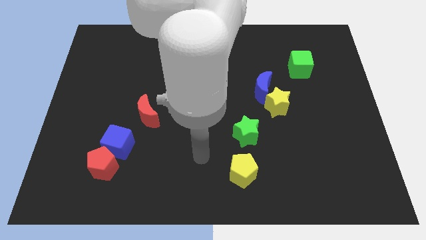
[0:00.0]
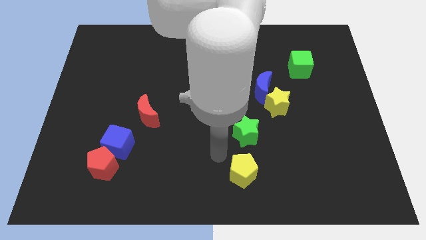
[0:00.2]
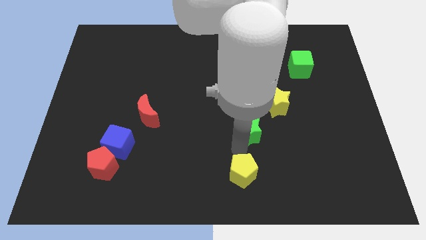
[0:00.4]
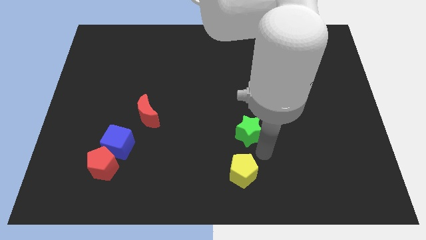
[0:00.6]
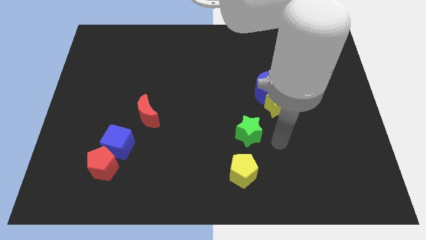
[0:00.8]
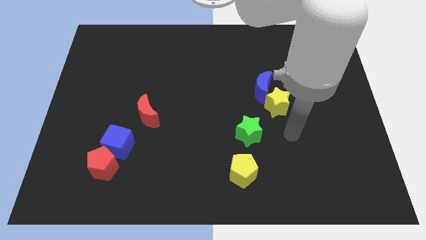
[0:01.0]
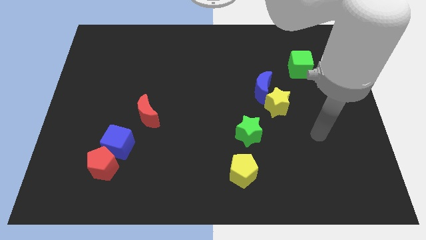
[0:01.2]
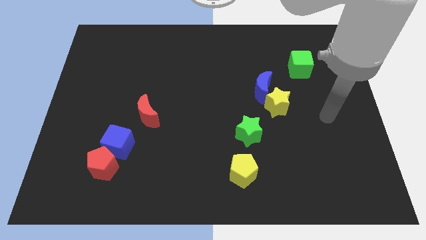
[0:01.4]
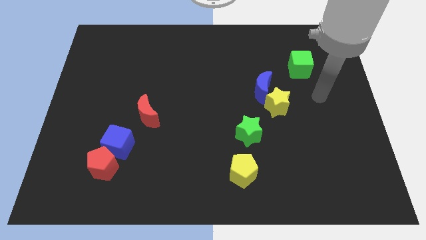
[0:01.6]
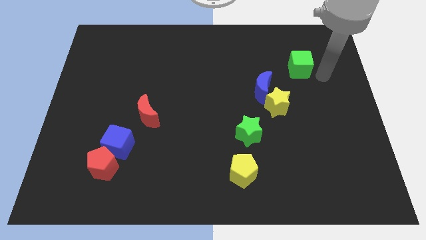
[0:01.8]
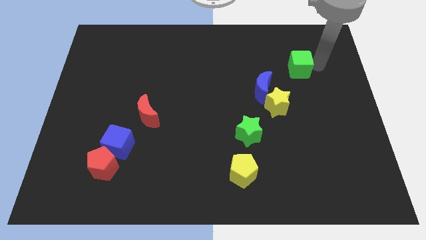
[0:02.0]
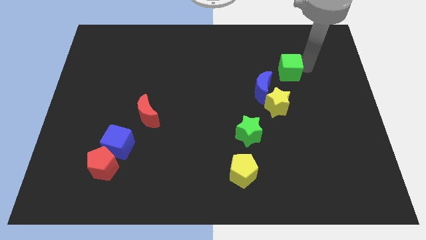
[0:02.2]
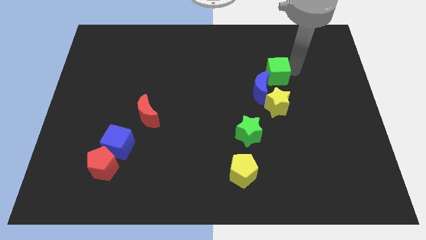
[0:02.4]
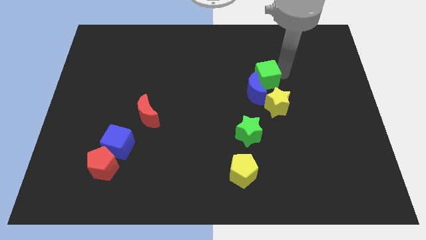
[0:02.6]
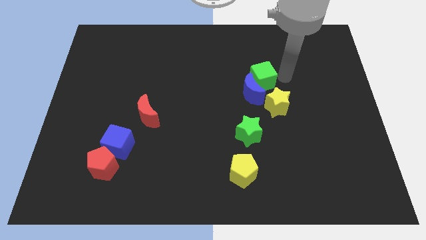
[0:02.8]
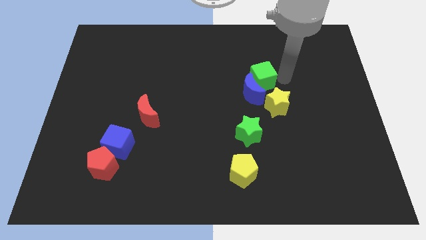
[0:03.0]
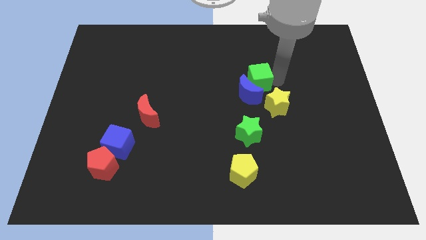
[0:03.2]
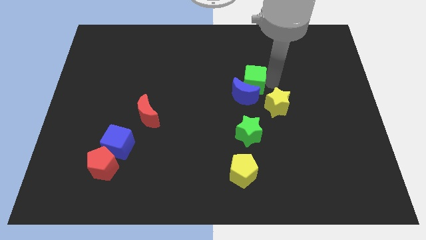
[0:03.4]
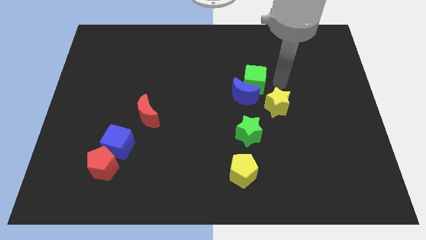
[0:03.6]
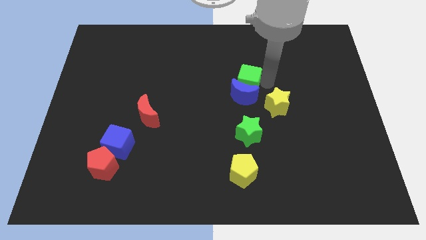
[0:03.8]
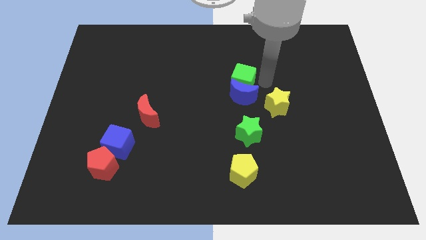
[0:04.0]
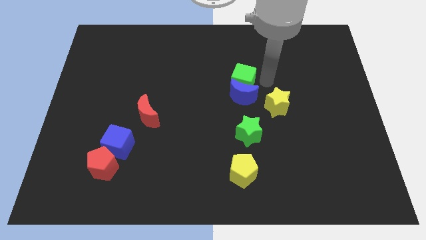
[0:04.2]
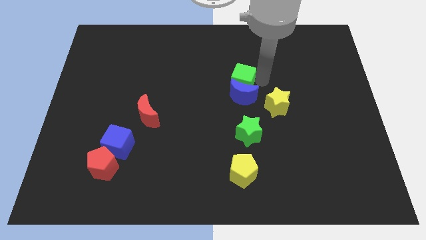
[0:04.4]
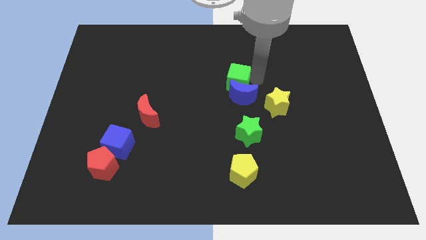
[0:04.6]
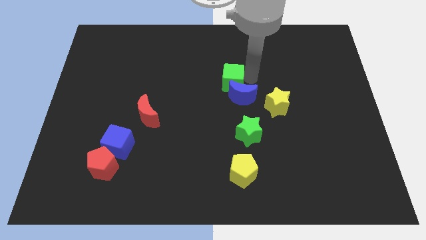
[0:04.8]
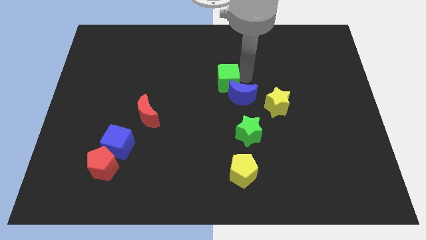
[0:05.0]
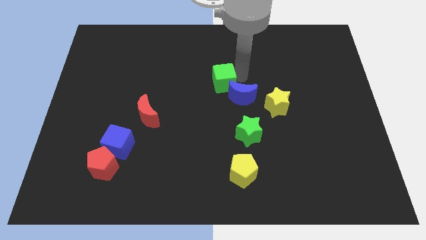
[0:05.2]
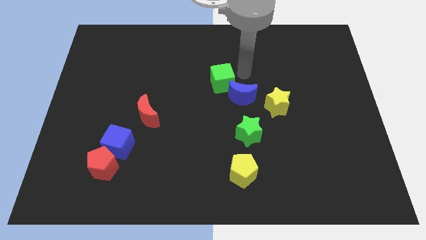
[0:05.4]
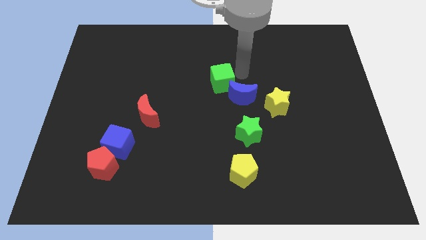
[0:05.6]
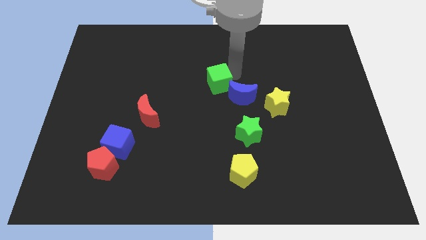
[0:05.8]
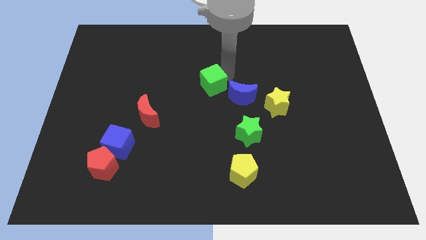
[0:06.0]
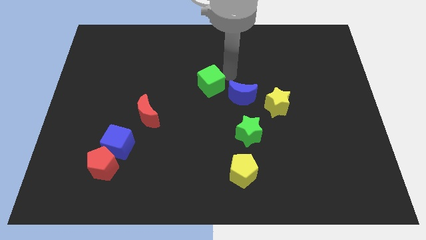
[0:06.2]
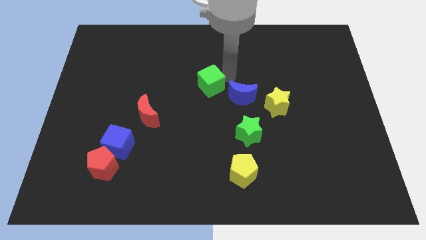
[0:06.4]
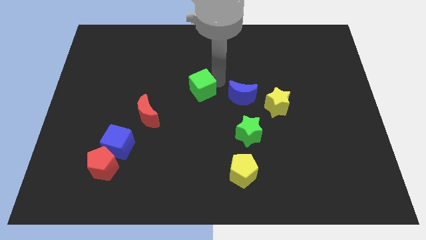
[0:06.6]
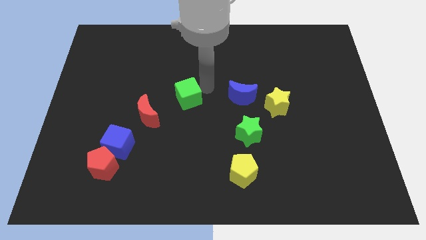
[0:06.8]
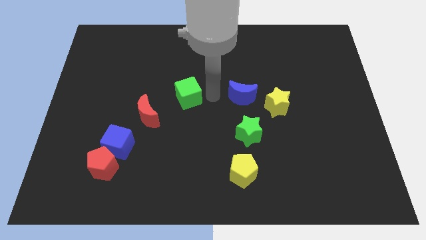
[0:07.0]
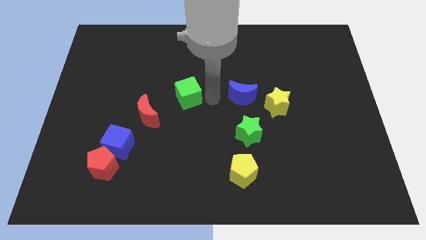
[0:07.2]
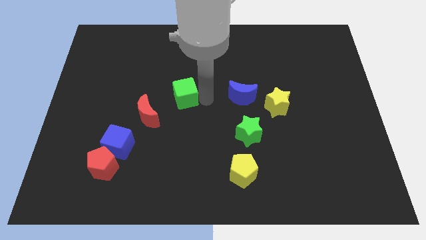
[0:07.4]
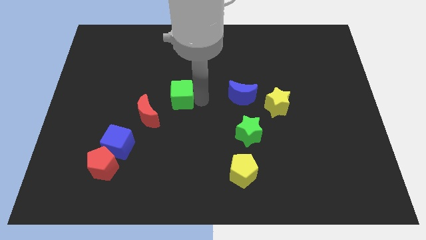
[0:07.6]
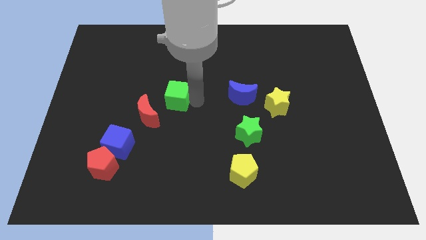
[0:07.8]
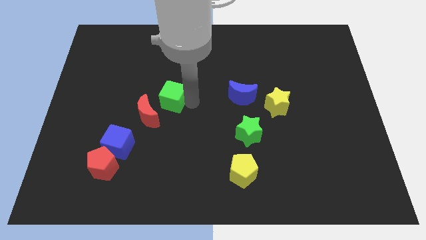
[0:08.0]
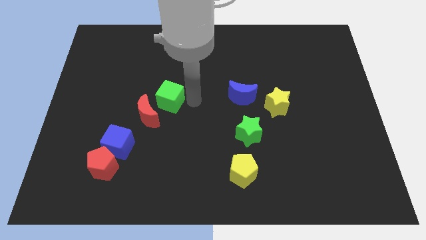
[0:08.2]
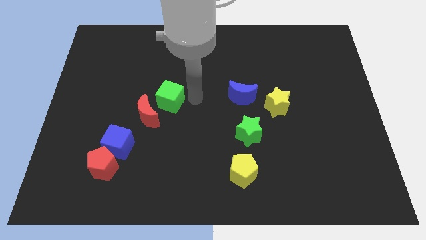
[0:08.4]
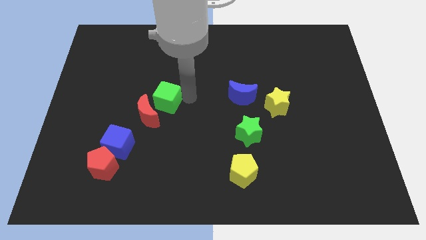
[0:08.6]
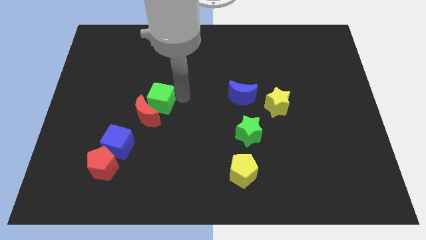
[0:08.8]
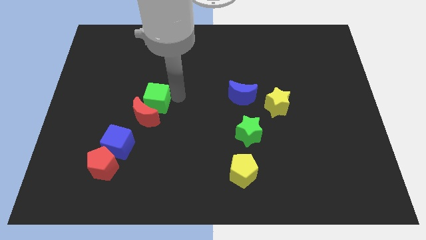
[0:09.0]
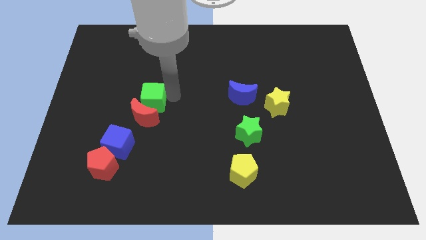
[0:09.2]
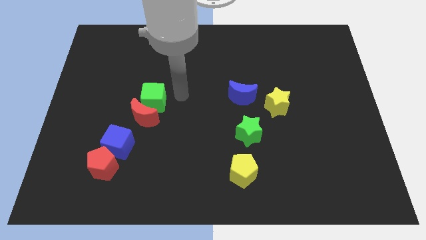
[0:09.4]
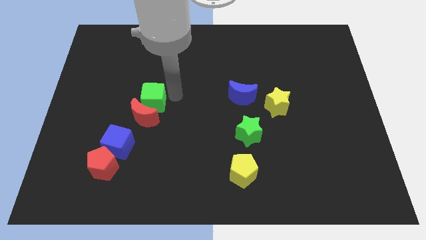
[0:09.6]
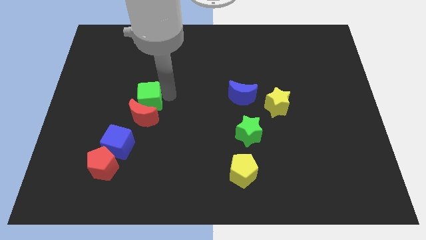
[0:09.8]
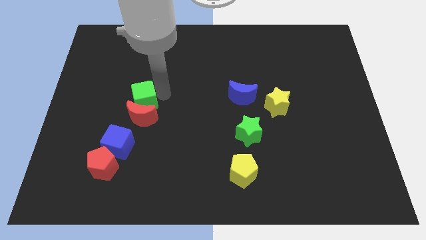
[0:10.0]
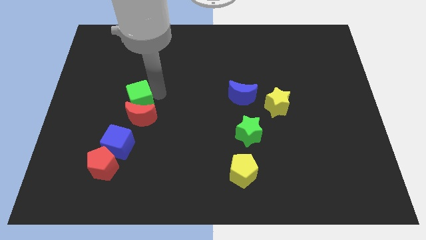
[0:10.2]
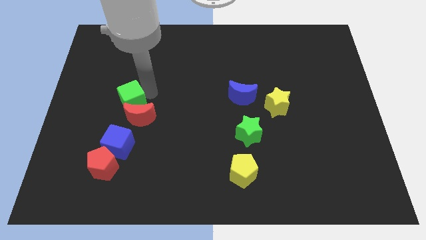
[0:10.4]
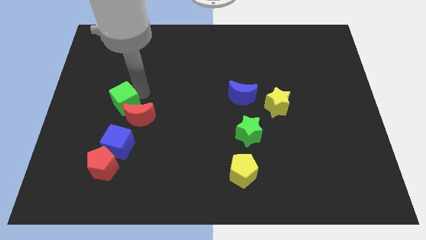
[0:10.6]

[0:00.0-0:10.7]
push the green cube left of the red moon
